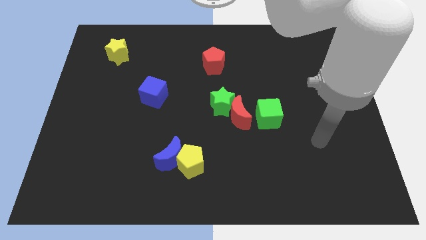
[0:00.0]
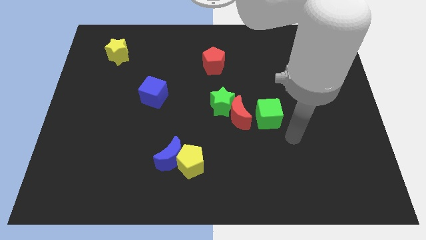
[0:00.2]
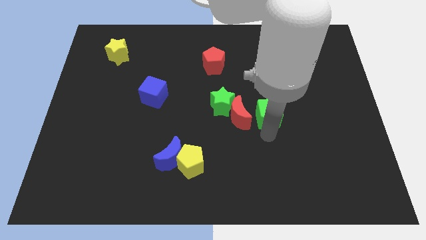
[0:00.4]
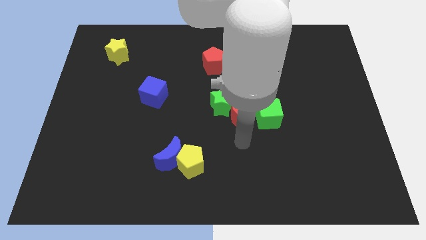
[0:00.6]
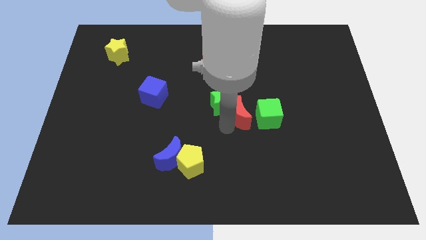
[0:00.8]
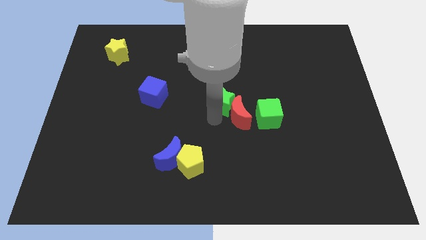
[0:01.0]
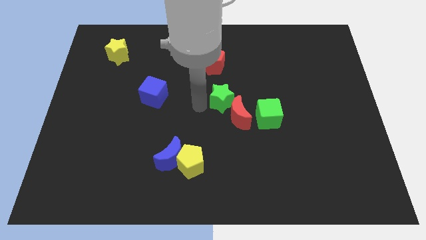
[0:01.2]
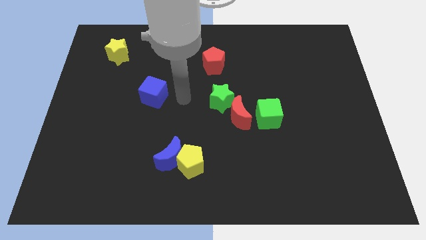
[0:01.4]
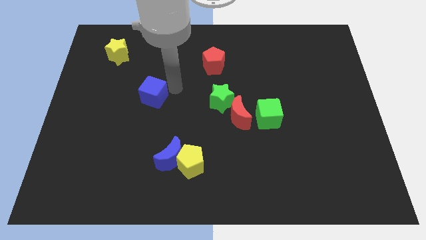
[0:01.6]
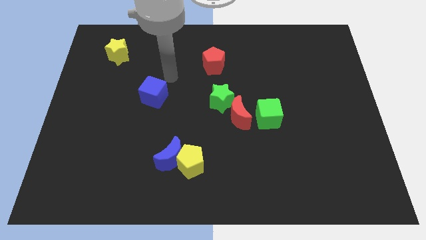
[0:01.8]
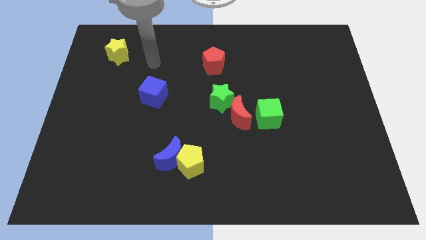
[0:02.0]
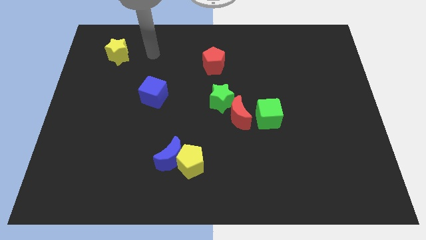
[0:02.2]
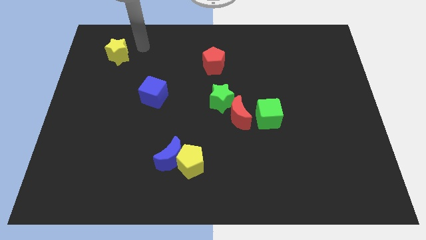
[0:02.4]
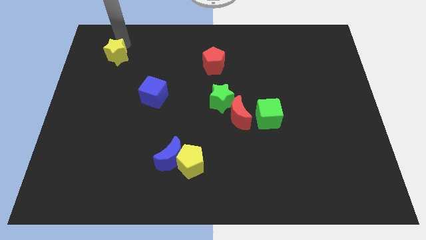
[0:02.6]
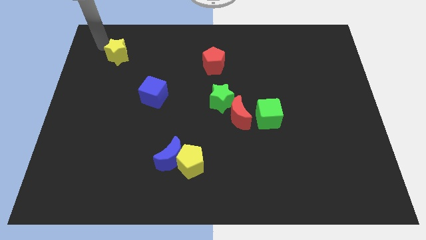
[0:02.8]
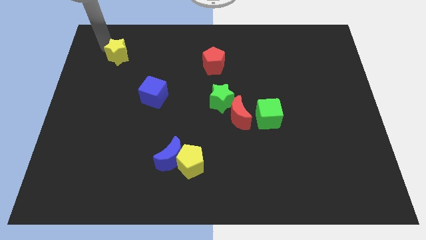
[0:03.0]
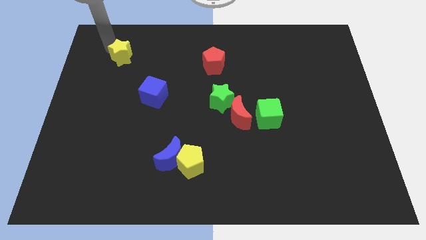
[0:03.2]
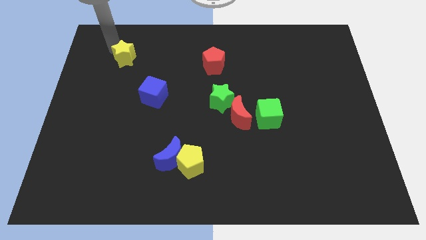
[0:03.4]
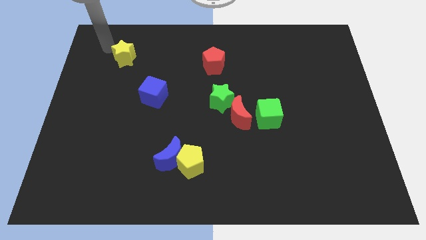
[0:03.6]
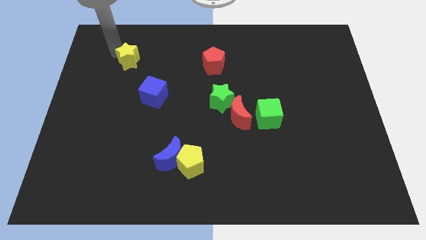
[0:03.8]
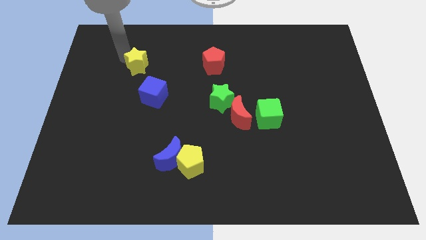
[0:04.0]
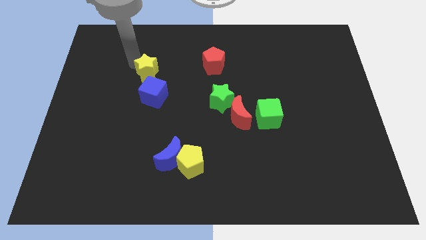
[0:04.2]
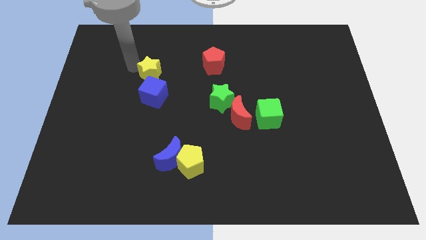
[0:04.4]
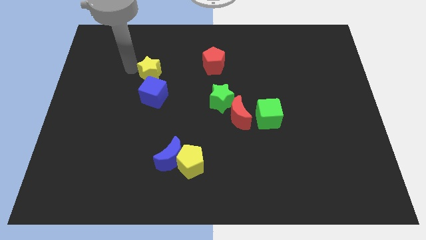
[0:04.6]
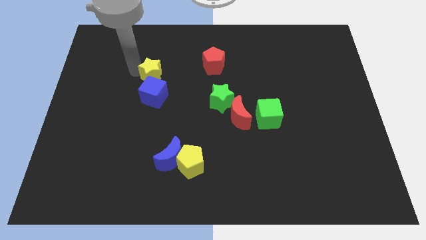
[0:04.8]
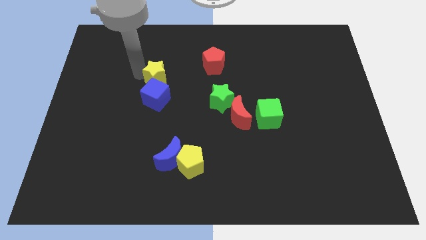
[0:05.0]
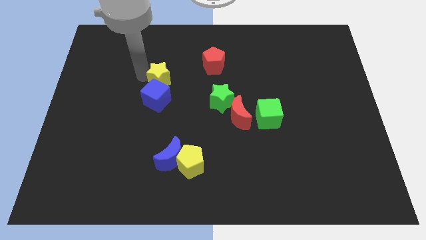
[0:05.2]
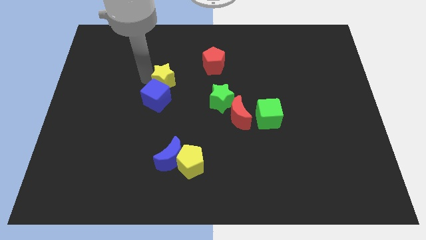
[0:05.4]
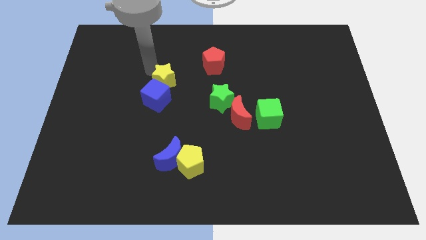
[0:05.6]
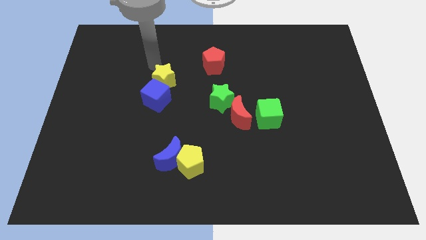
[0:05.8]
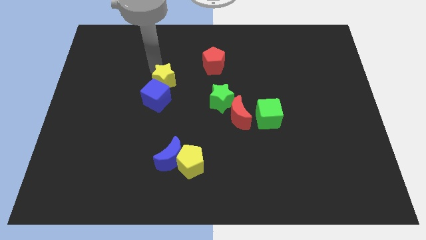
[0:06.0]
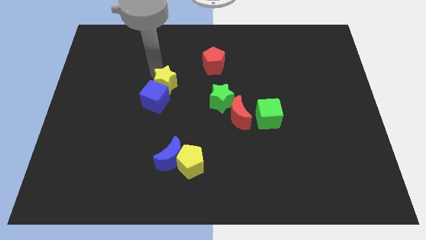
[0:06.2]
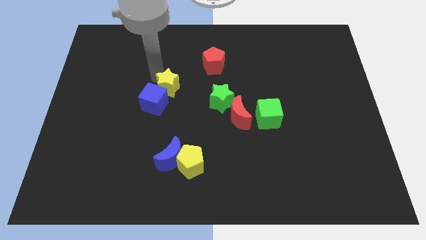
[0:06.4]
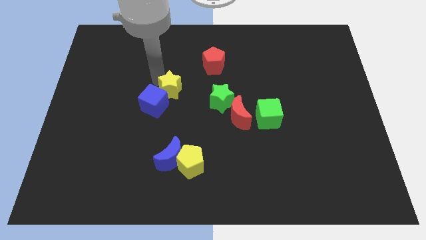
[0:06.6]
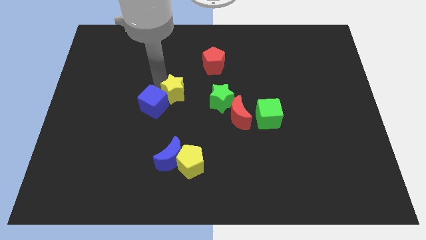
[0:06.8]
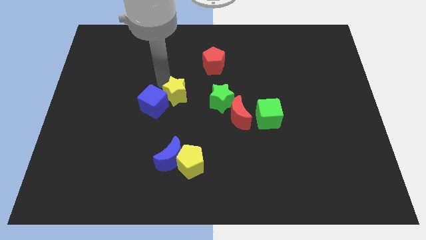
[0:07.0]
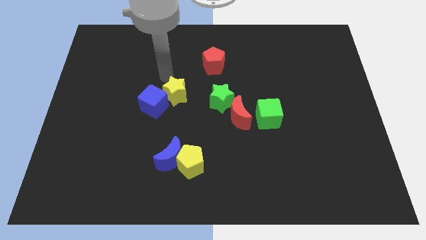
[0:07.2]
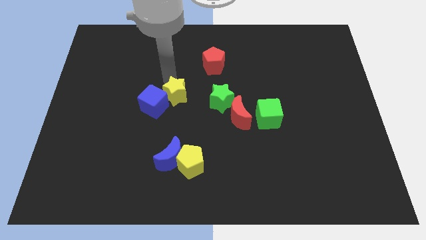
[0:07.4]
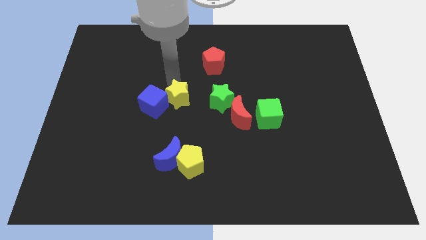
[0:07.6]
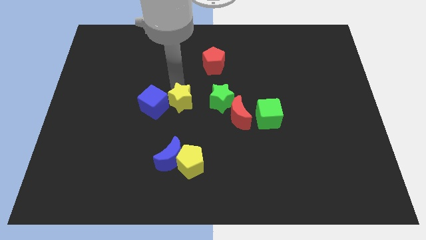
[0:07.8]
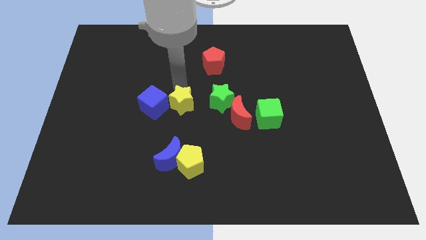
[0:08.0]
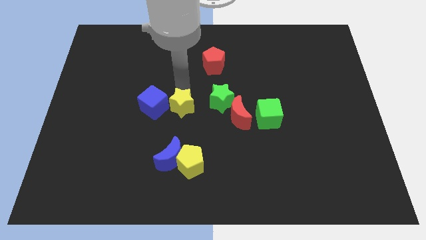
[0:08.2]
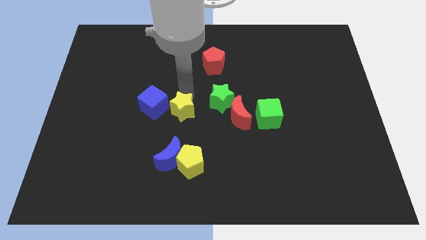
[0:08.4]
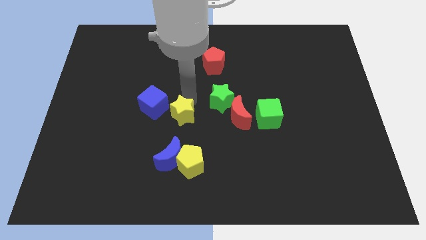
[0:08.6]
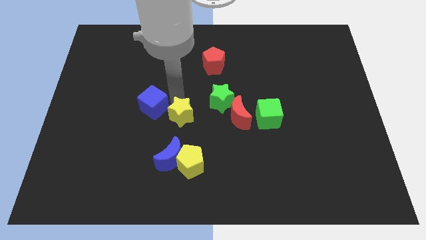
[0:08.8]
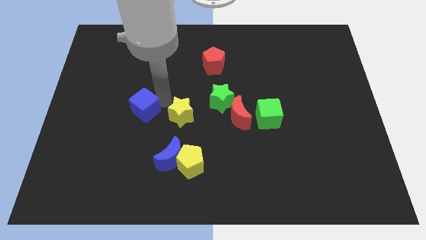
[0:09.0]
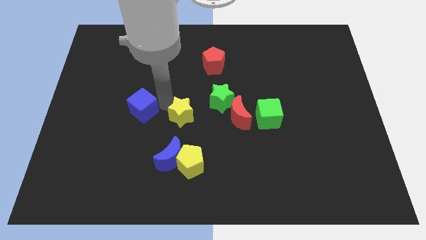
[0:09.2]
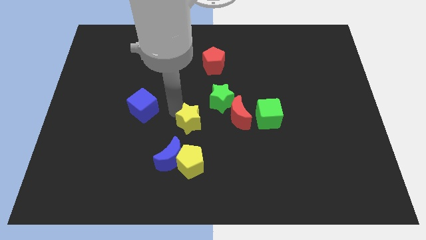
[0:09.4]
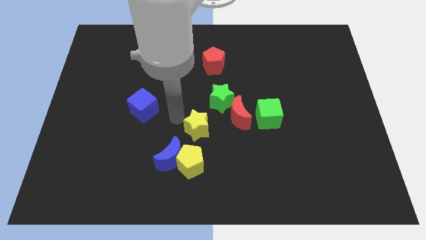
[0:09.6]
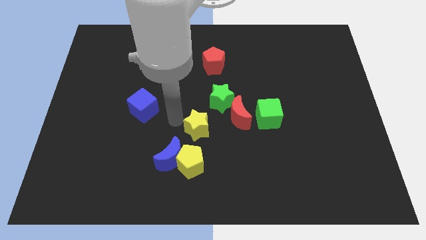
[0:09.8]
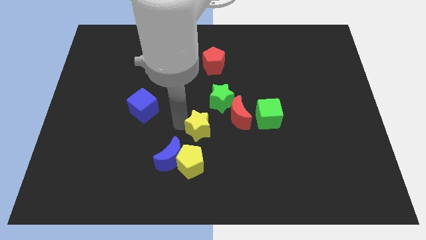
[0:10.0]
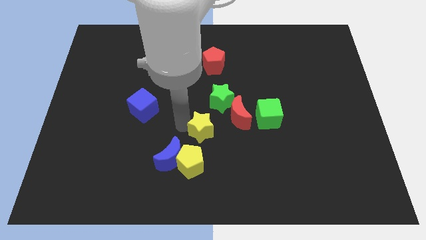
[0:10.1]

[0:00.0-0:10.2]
move the yellow star to the bottom of the green star

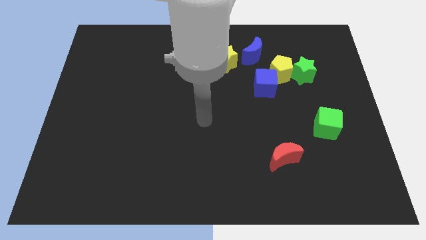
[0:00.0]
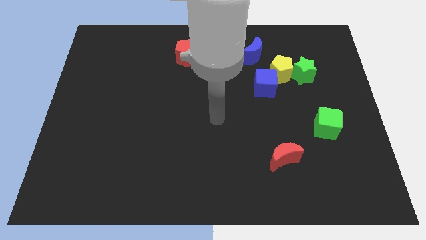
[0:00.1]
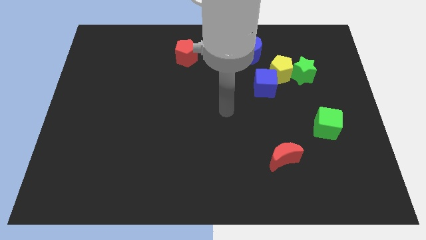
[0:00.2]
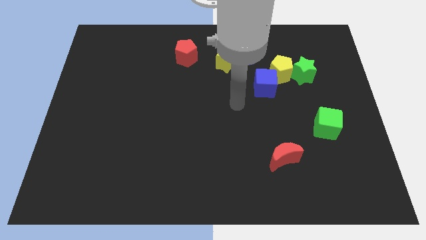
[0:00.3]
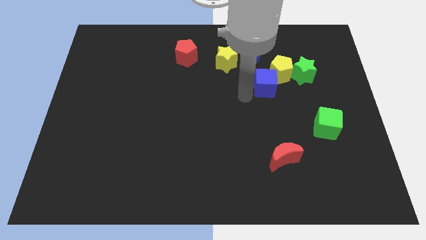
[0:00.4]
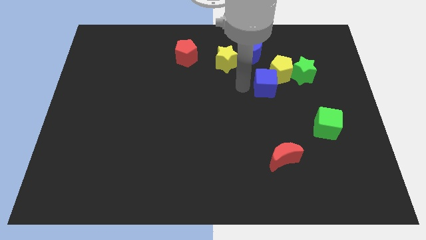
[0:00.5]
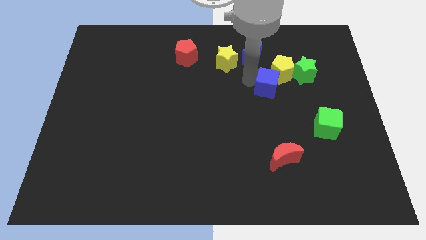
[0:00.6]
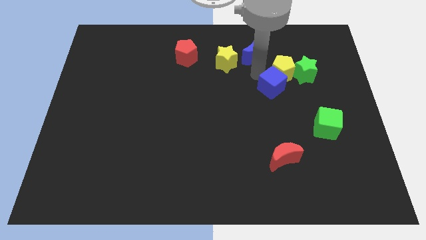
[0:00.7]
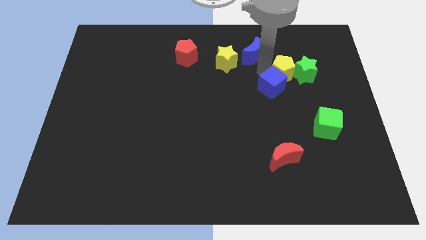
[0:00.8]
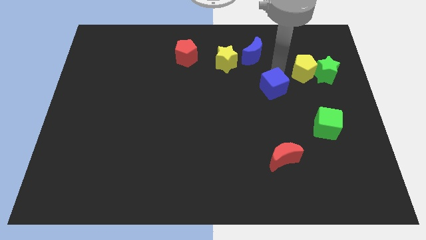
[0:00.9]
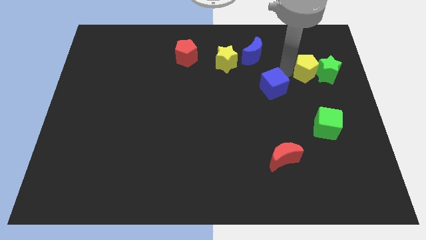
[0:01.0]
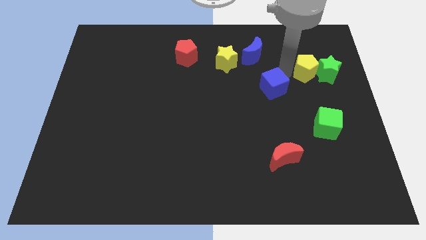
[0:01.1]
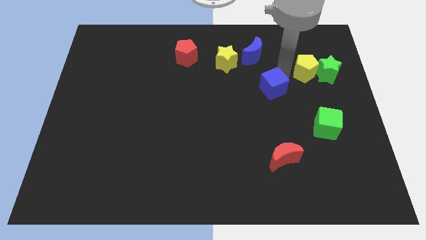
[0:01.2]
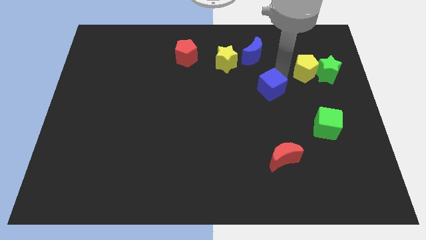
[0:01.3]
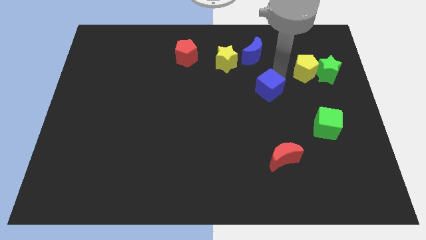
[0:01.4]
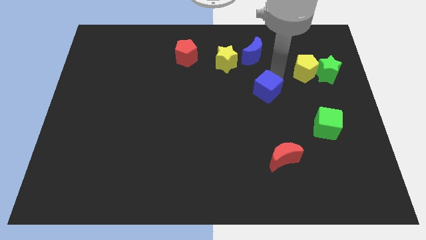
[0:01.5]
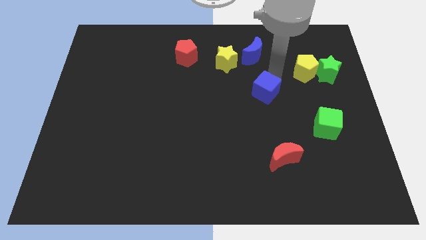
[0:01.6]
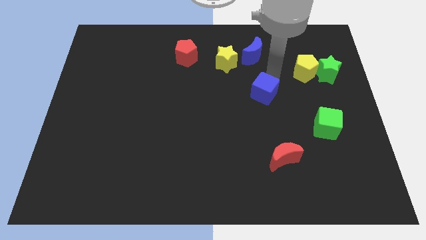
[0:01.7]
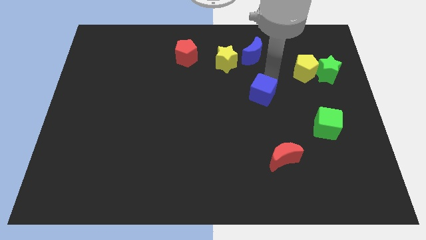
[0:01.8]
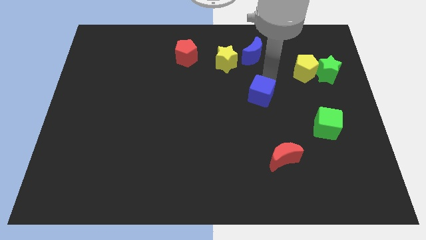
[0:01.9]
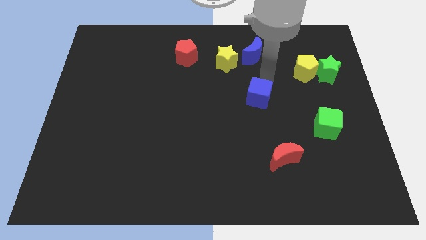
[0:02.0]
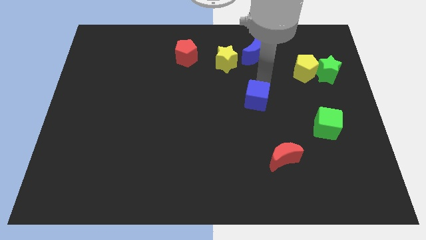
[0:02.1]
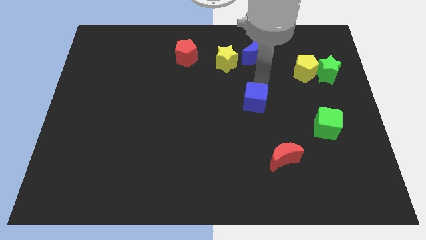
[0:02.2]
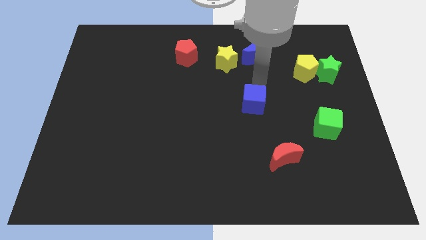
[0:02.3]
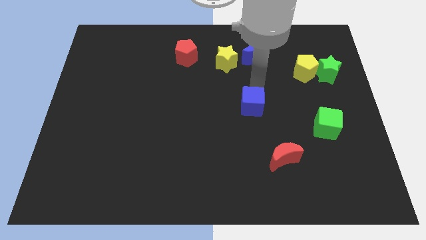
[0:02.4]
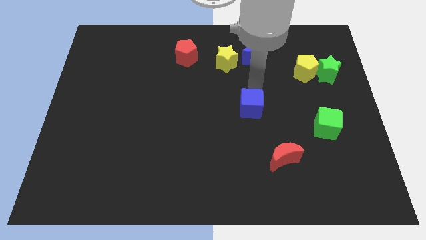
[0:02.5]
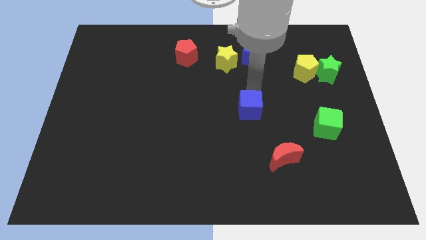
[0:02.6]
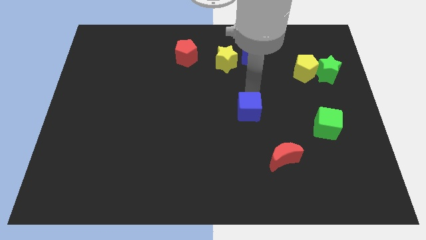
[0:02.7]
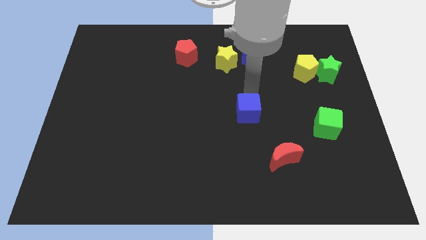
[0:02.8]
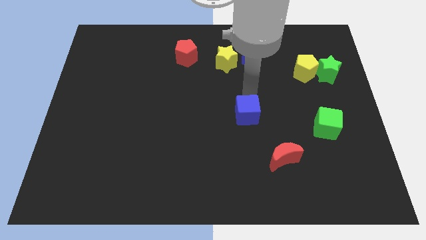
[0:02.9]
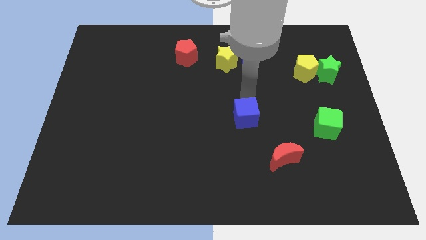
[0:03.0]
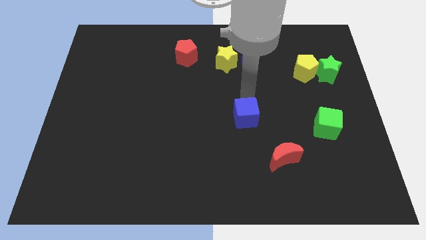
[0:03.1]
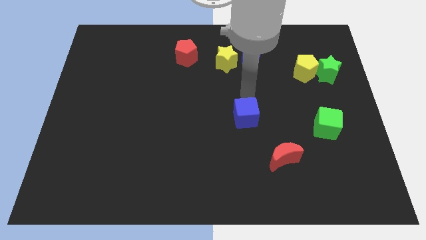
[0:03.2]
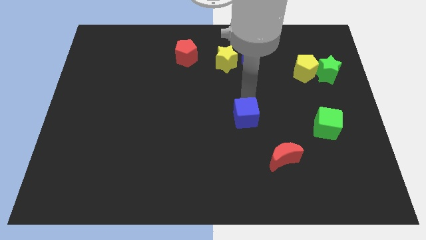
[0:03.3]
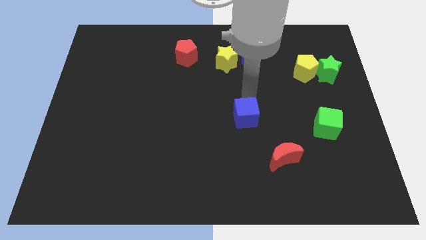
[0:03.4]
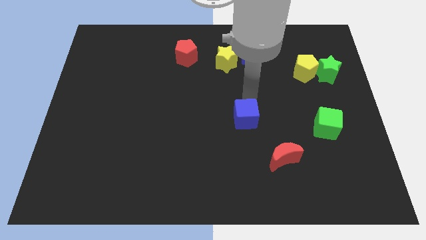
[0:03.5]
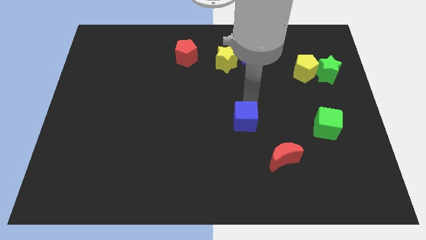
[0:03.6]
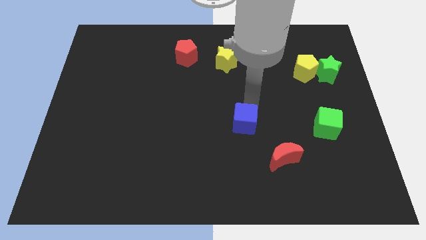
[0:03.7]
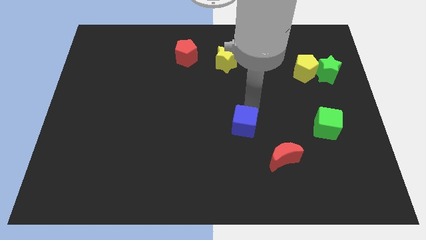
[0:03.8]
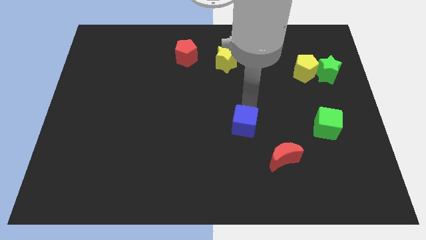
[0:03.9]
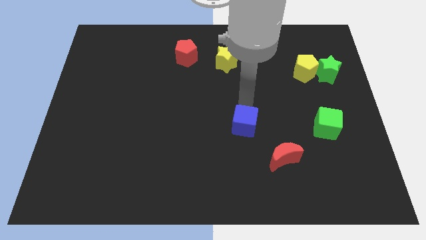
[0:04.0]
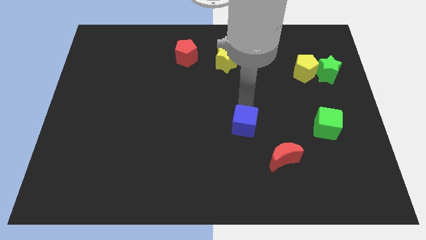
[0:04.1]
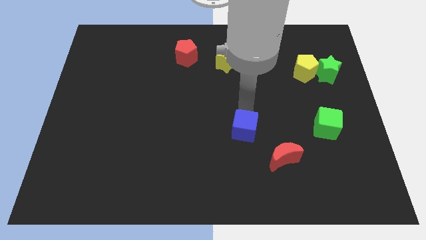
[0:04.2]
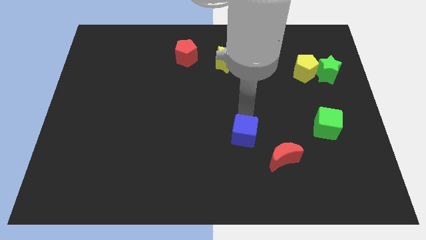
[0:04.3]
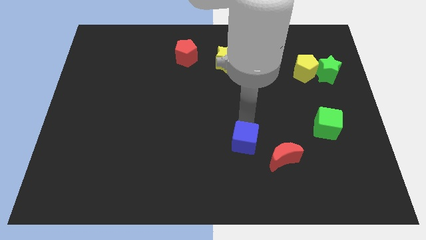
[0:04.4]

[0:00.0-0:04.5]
move the blue cube to the left side of the red moon
